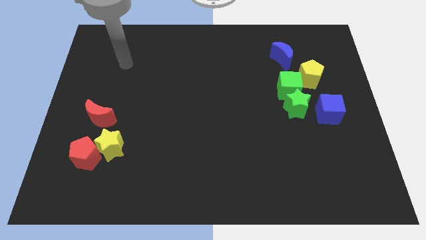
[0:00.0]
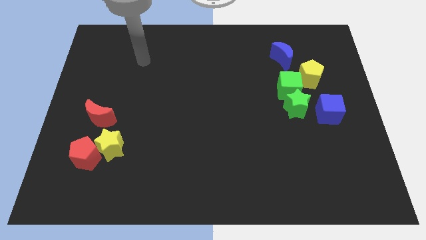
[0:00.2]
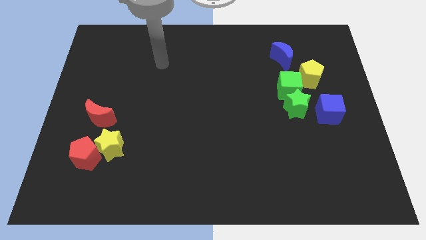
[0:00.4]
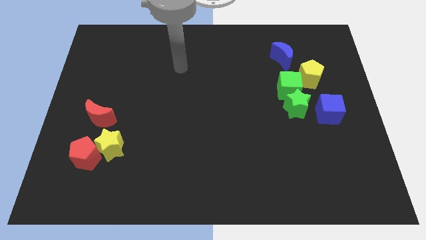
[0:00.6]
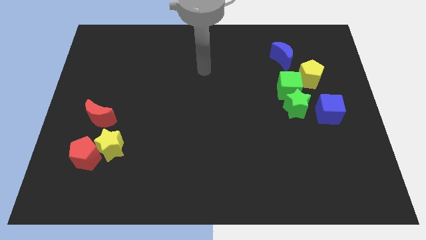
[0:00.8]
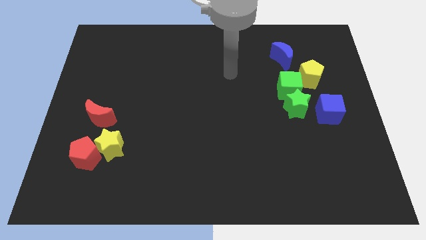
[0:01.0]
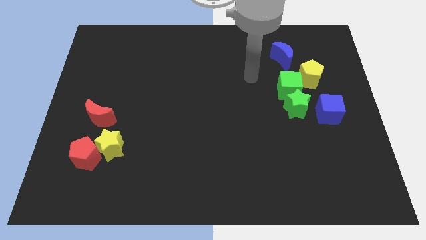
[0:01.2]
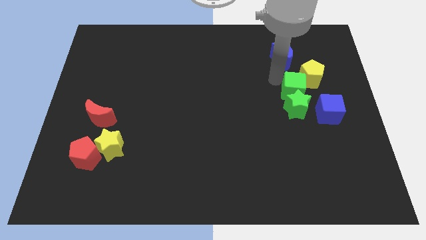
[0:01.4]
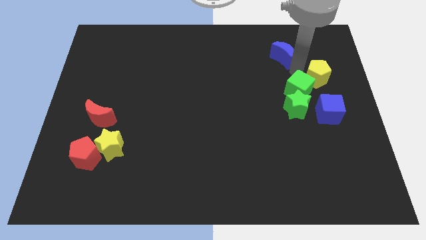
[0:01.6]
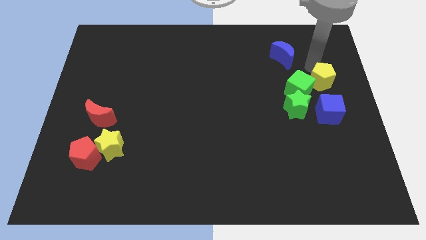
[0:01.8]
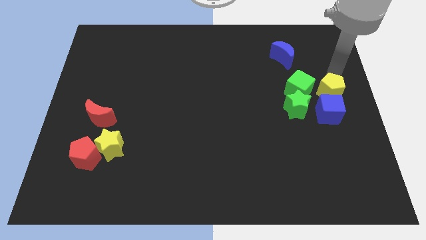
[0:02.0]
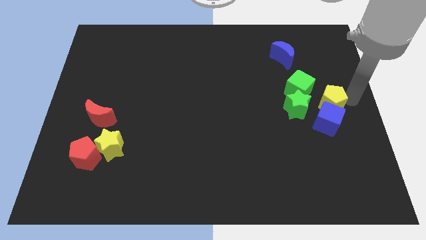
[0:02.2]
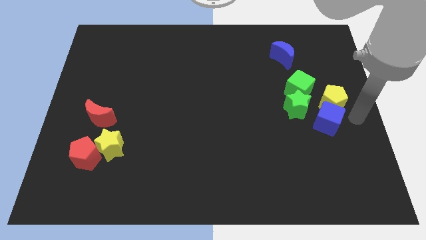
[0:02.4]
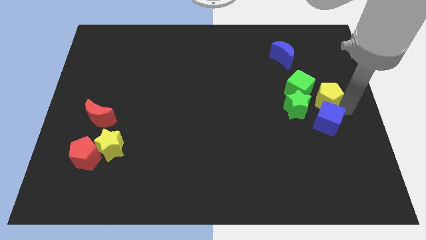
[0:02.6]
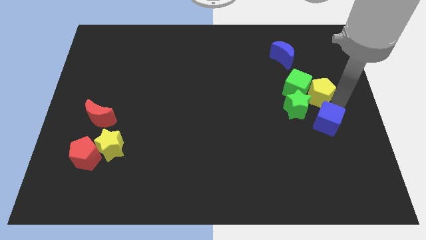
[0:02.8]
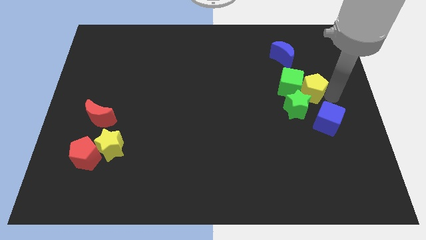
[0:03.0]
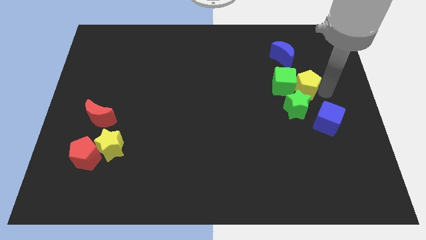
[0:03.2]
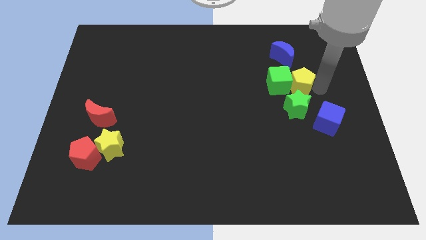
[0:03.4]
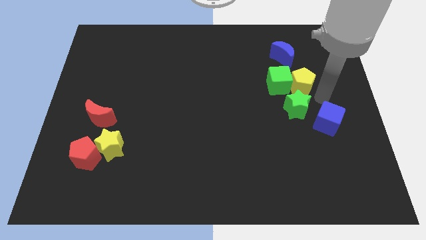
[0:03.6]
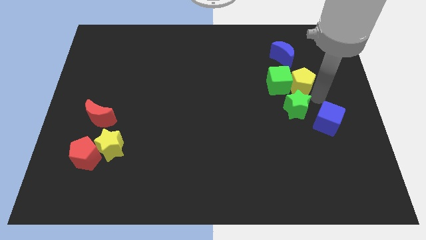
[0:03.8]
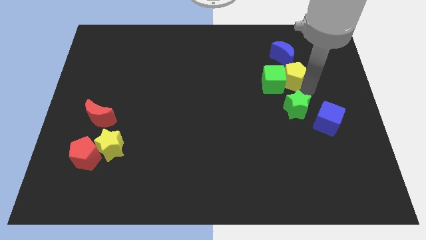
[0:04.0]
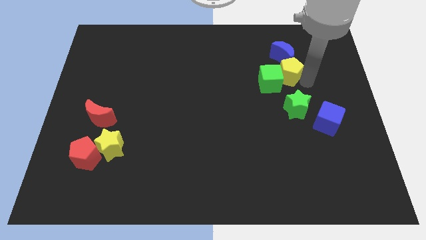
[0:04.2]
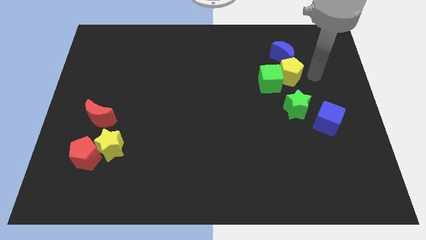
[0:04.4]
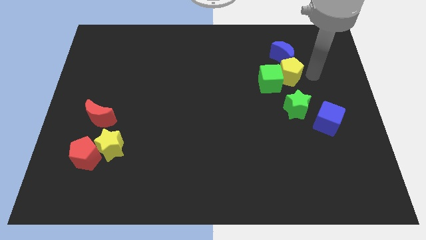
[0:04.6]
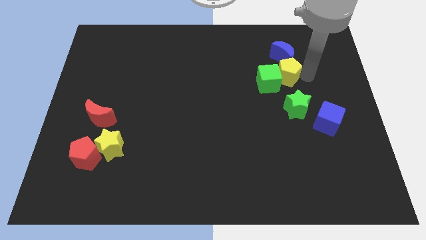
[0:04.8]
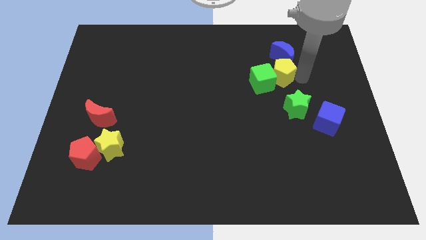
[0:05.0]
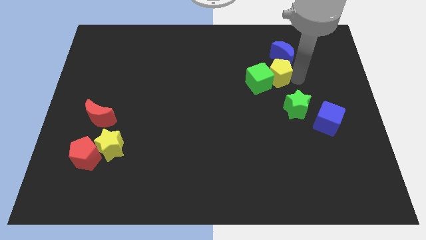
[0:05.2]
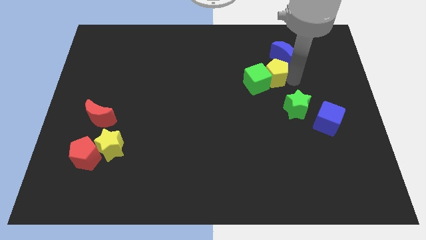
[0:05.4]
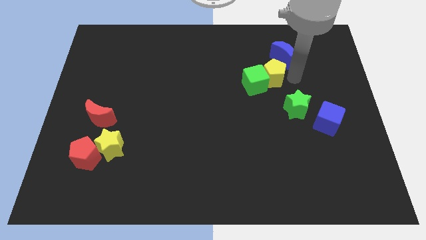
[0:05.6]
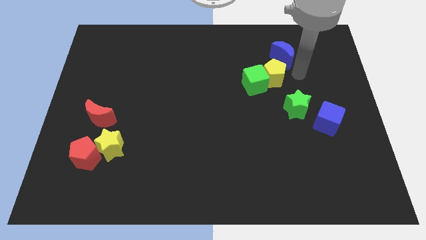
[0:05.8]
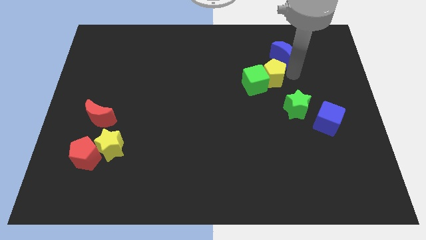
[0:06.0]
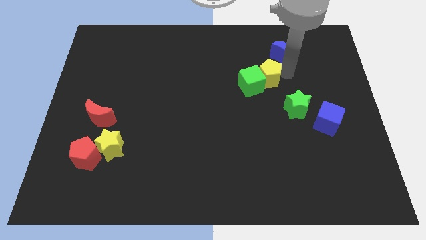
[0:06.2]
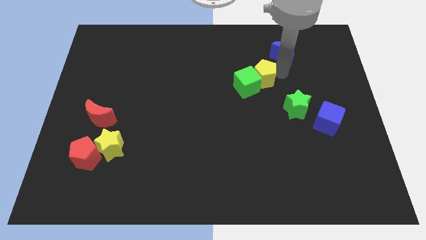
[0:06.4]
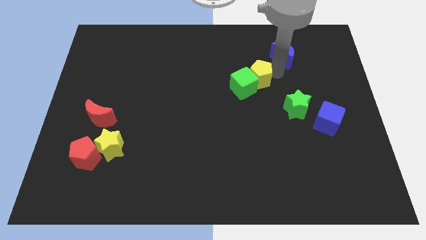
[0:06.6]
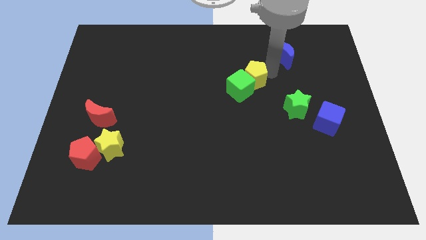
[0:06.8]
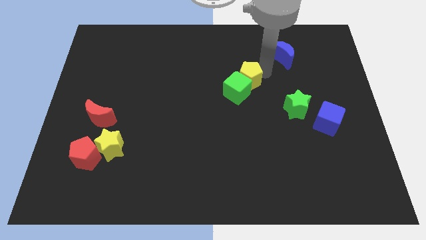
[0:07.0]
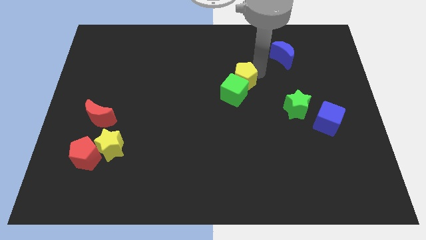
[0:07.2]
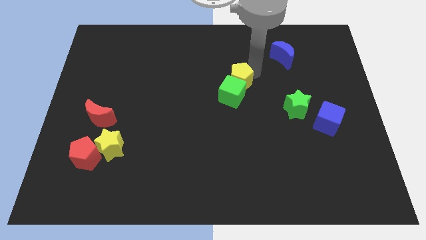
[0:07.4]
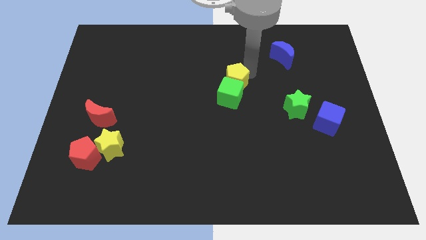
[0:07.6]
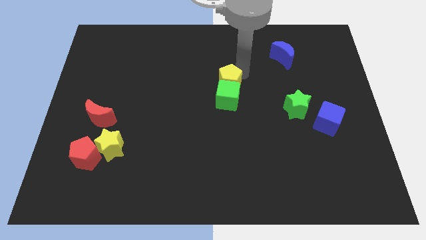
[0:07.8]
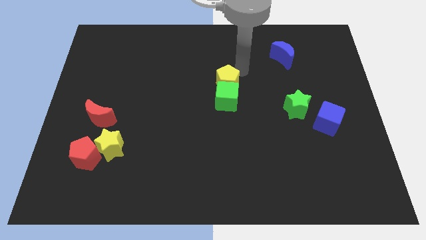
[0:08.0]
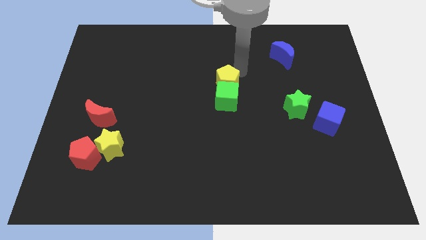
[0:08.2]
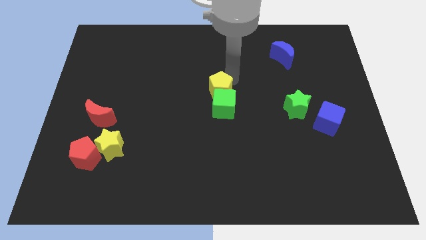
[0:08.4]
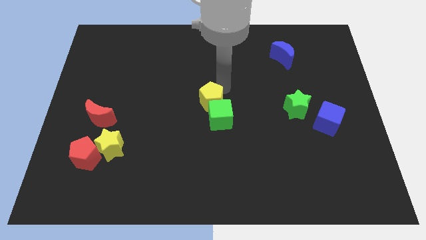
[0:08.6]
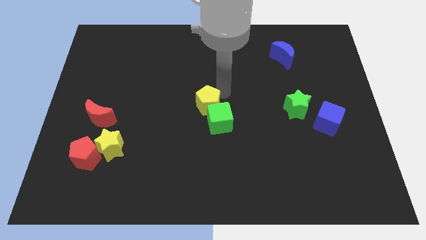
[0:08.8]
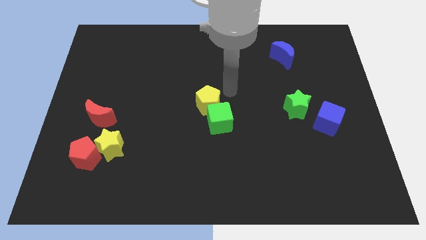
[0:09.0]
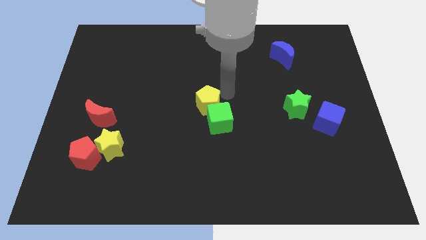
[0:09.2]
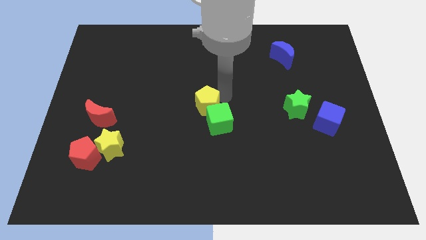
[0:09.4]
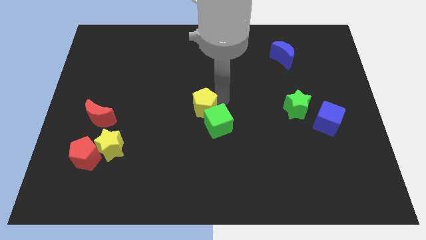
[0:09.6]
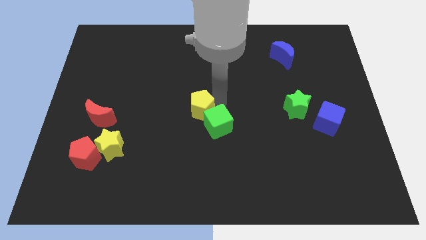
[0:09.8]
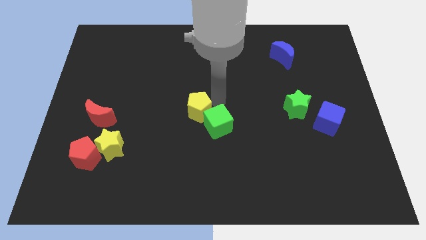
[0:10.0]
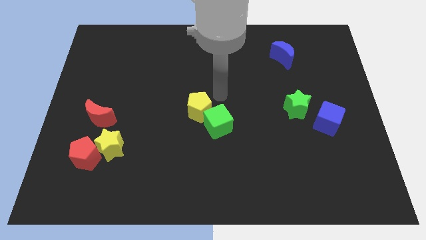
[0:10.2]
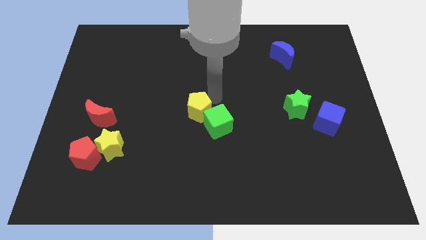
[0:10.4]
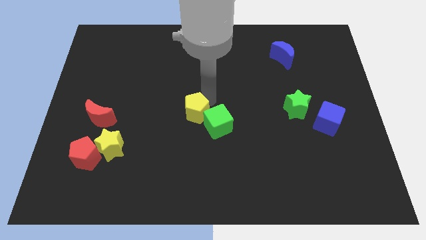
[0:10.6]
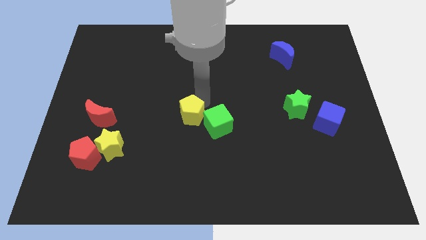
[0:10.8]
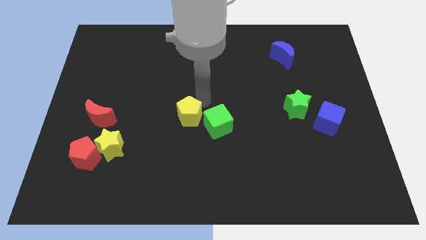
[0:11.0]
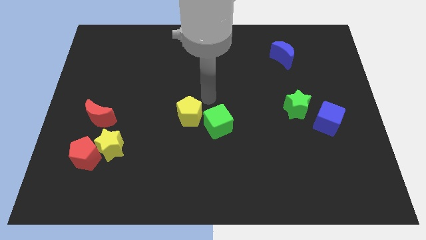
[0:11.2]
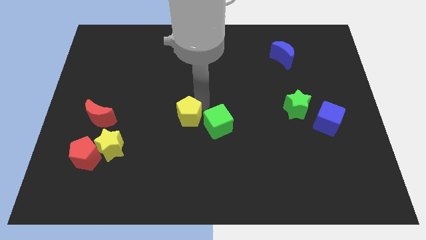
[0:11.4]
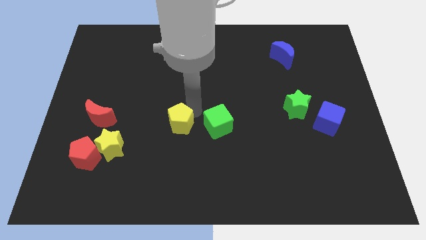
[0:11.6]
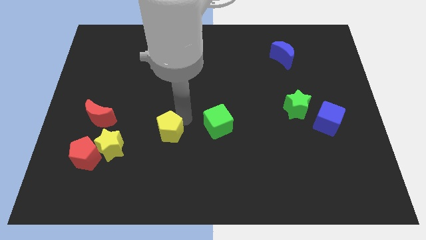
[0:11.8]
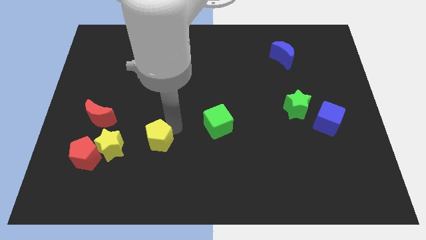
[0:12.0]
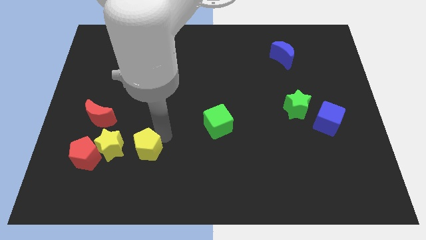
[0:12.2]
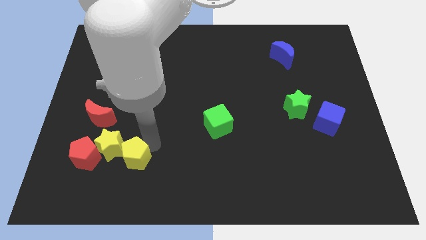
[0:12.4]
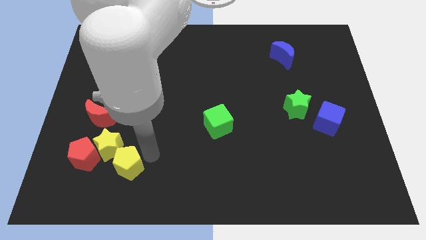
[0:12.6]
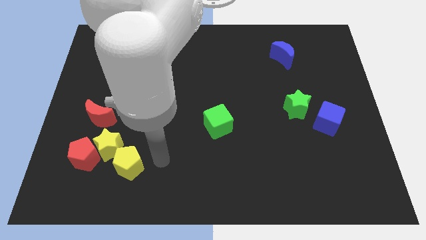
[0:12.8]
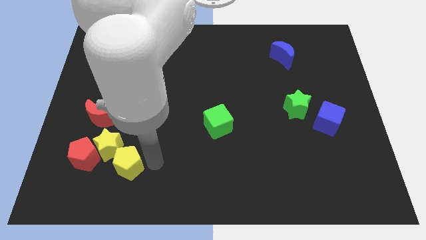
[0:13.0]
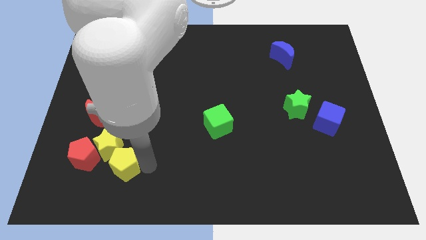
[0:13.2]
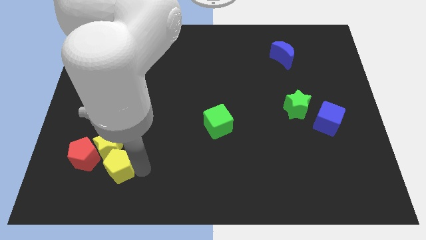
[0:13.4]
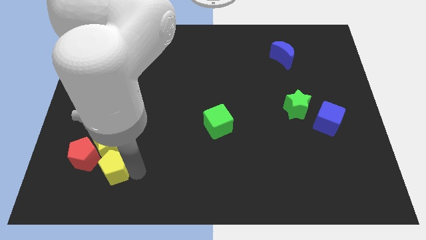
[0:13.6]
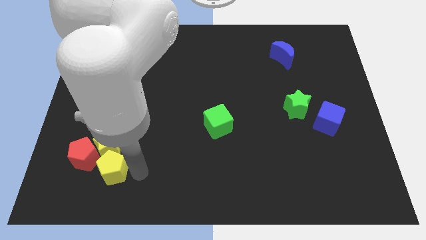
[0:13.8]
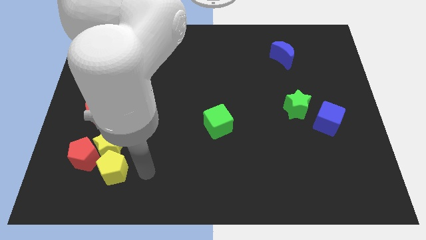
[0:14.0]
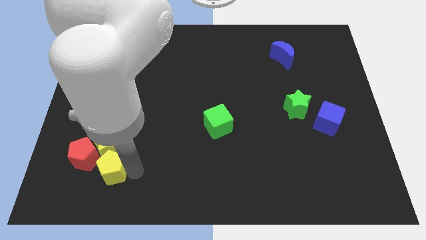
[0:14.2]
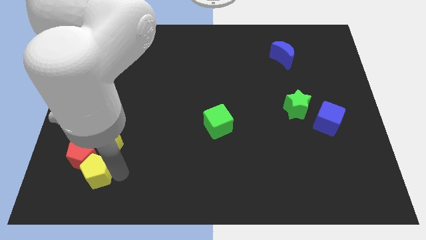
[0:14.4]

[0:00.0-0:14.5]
push the yellow pentagon to the red pentagon
